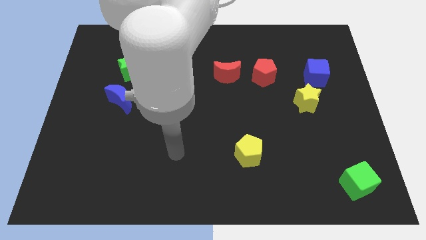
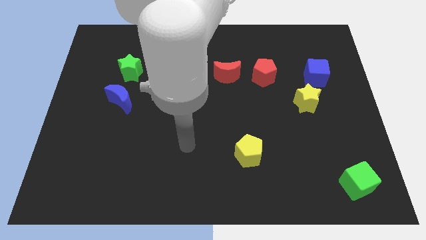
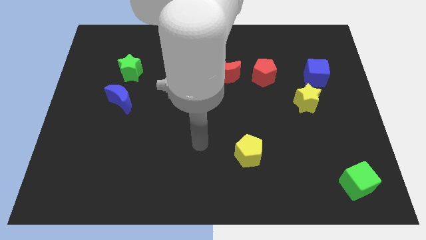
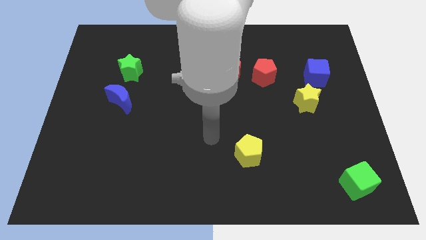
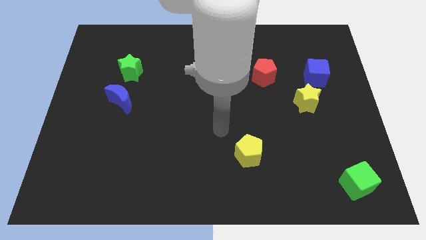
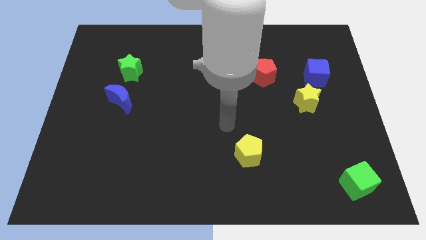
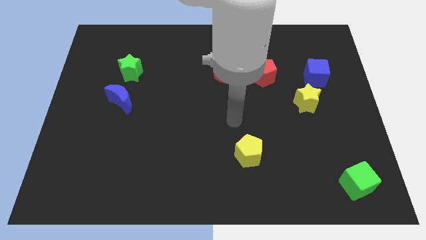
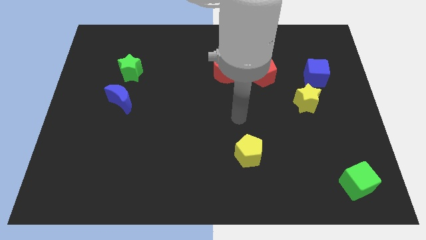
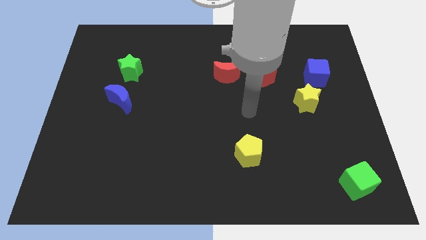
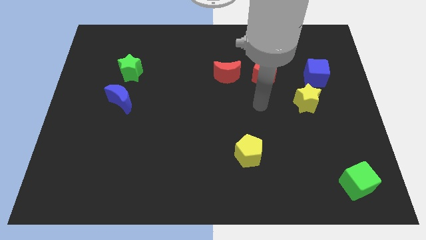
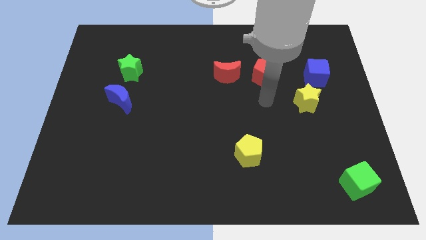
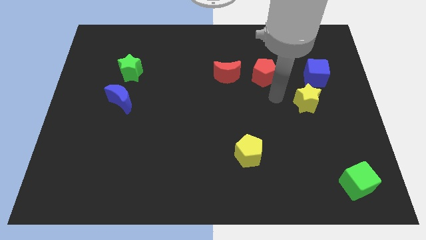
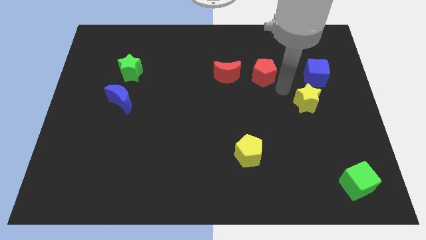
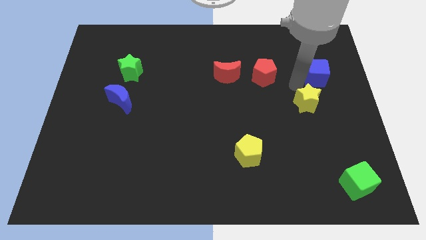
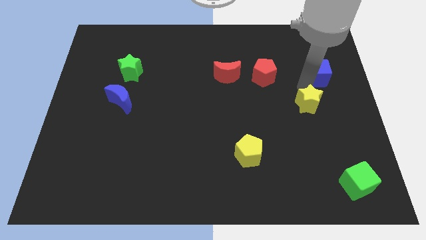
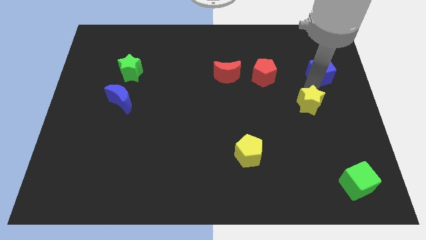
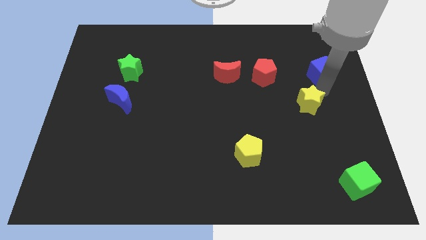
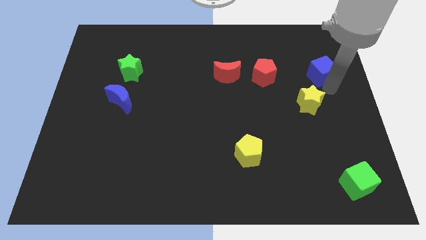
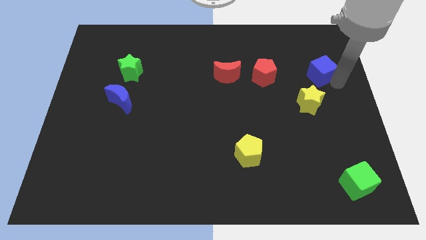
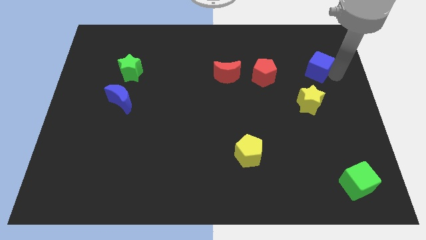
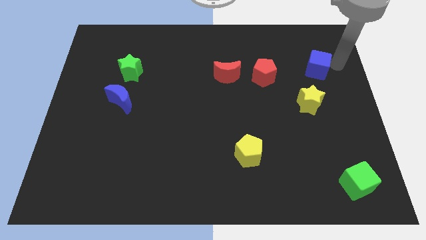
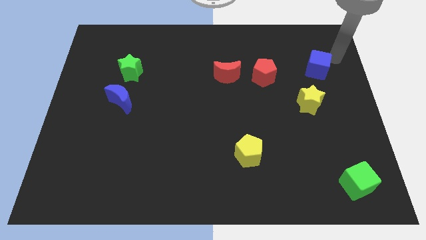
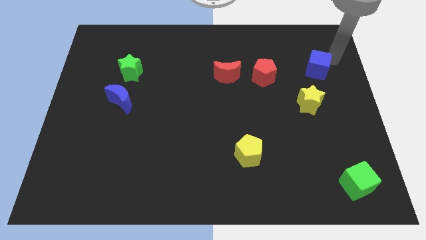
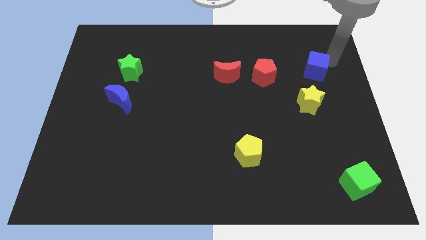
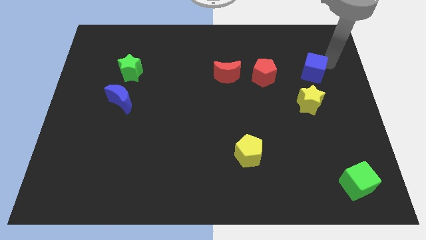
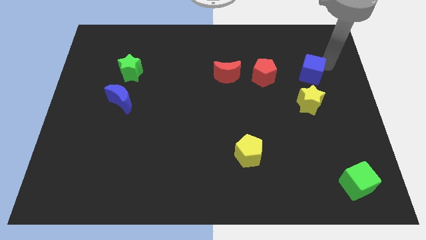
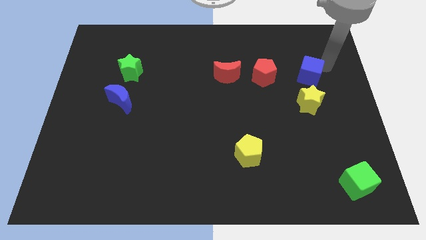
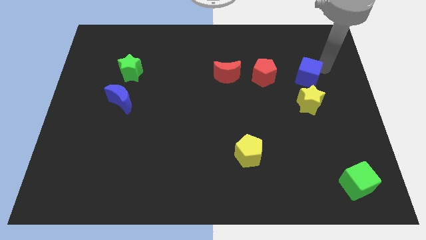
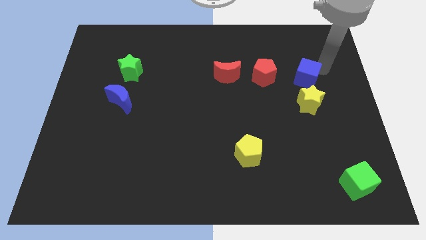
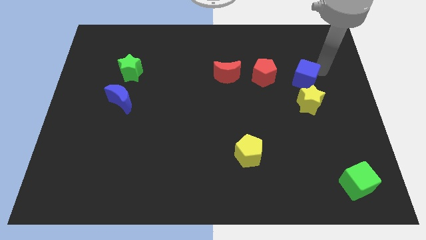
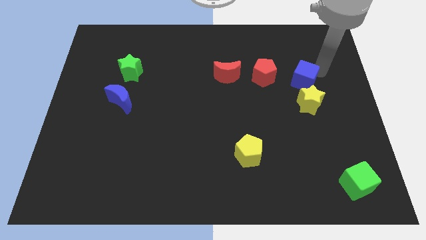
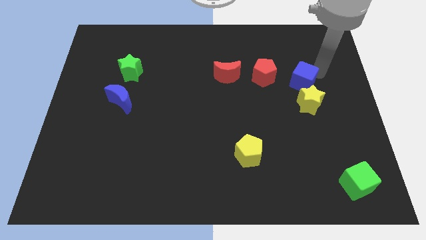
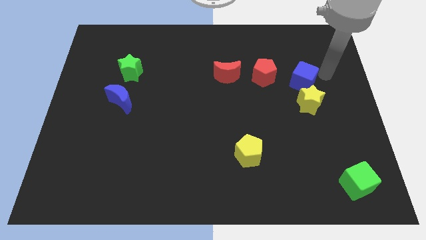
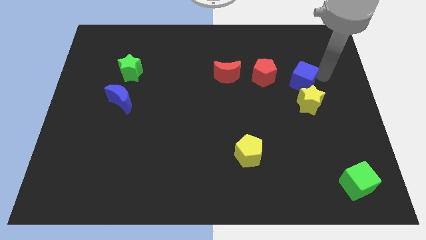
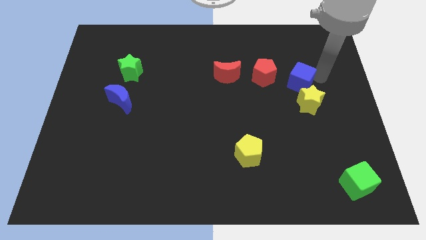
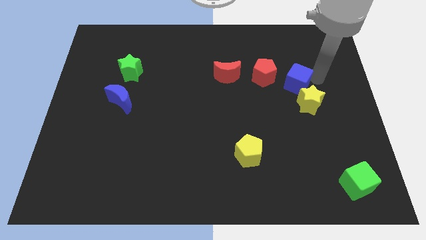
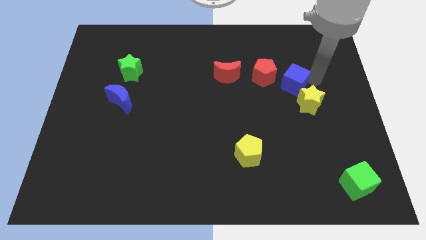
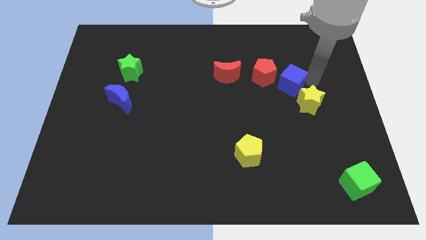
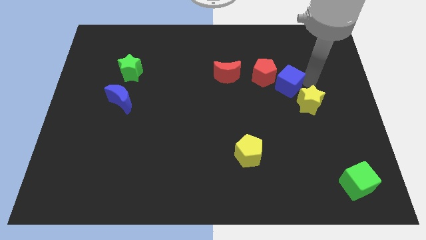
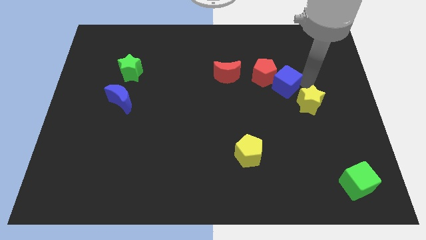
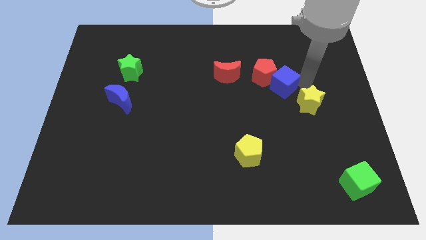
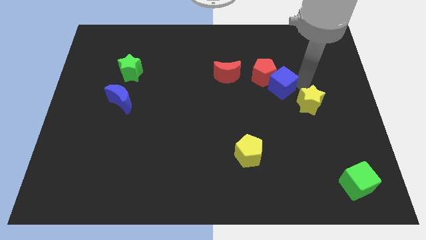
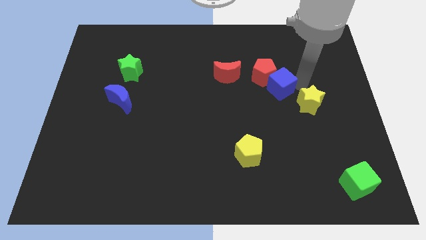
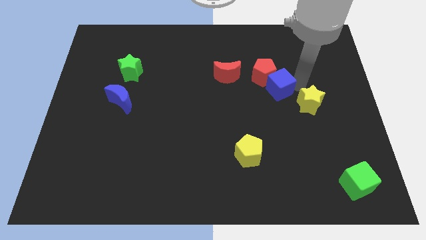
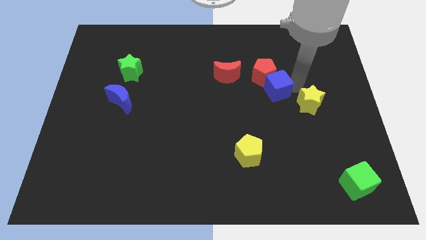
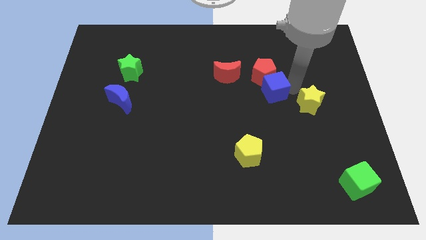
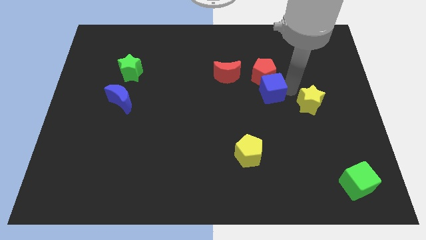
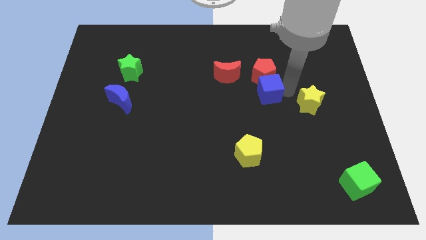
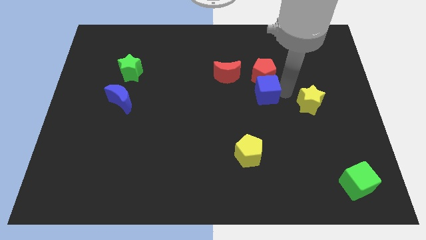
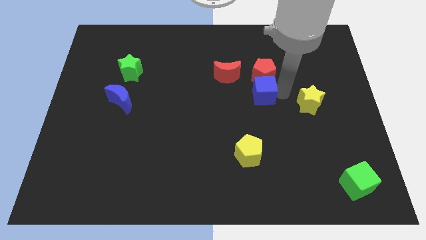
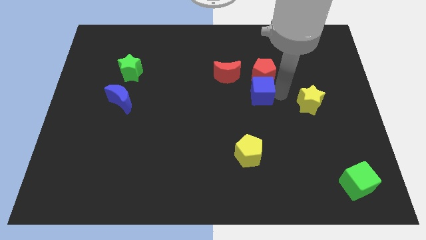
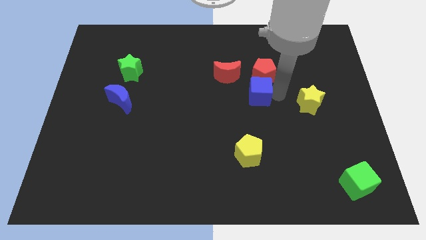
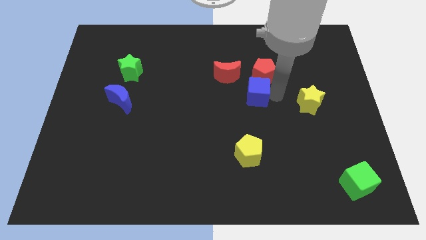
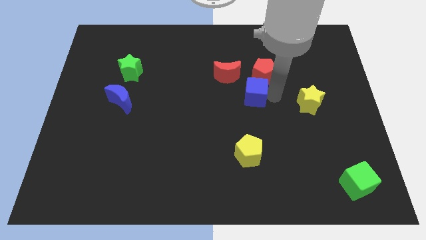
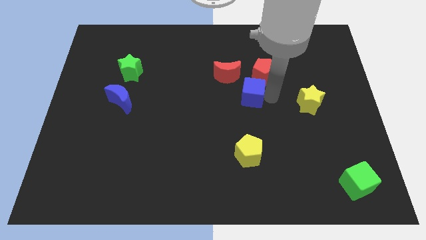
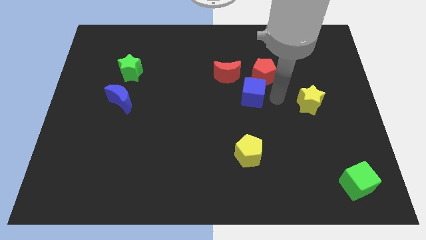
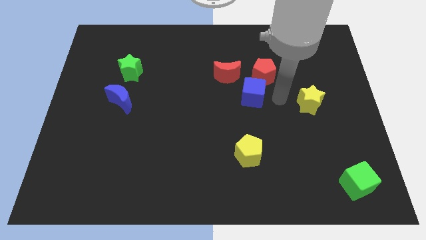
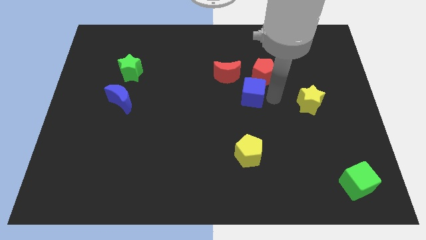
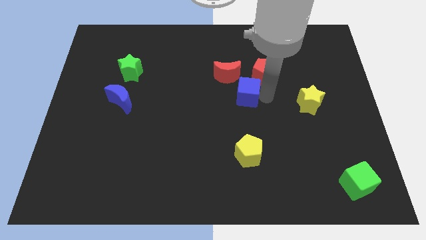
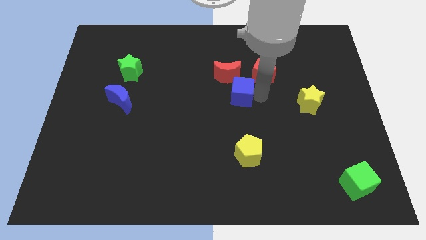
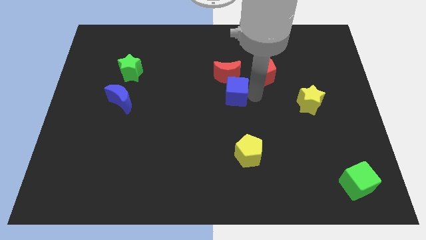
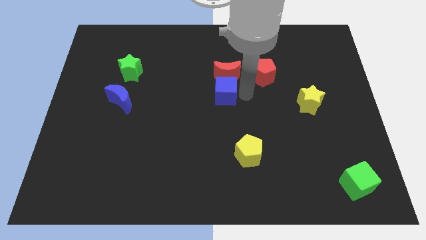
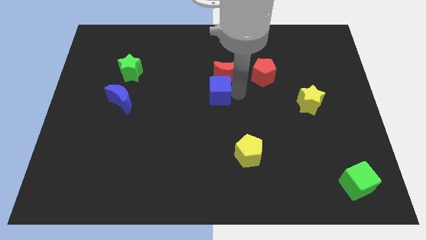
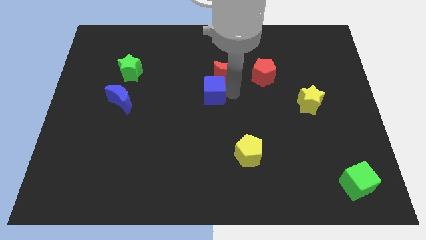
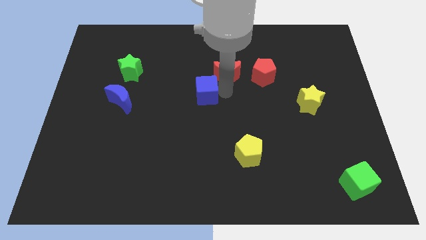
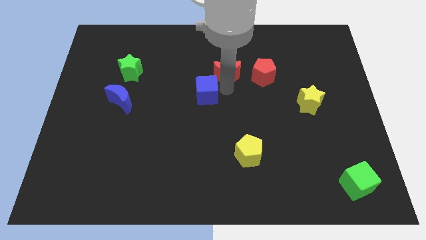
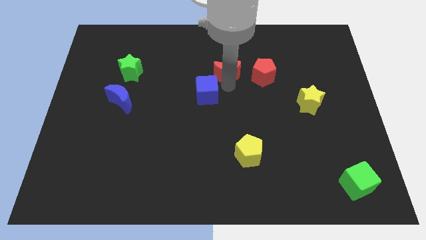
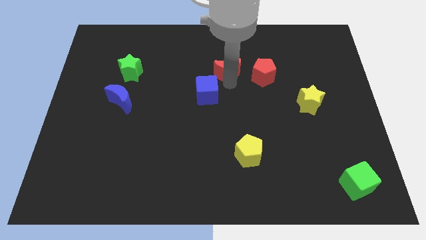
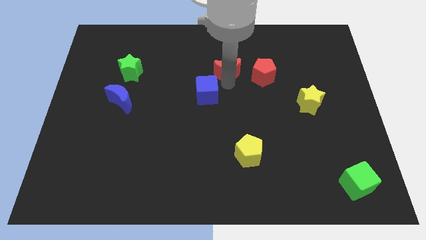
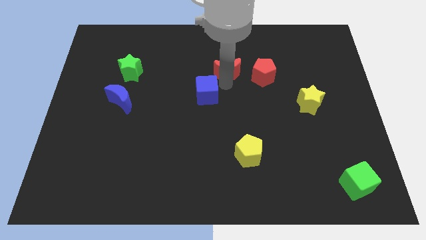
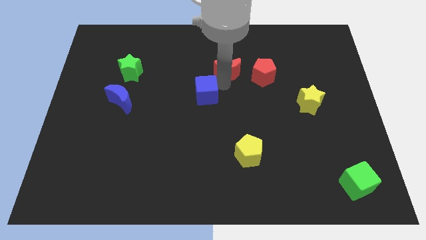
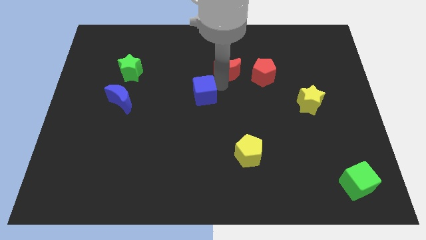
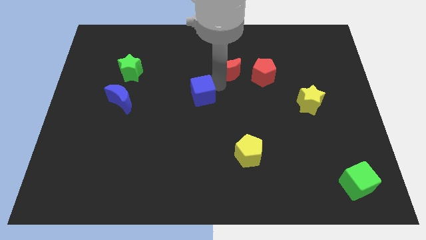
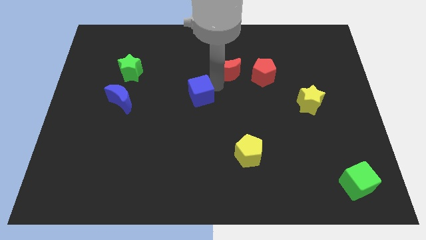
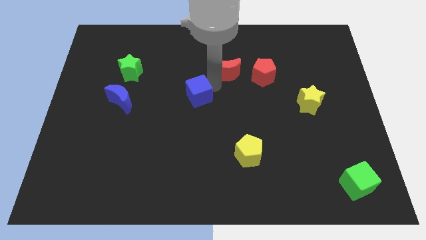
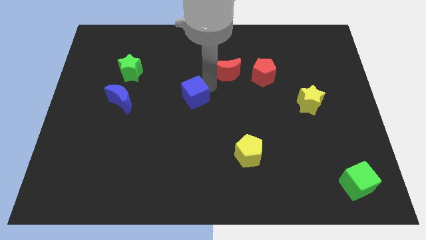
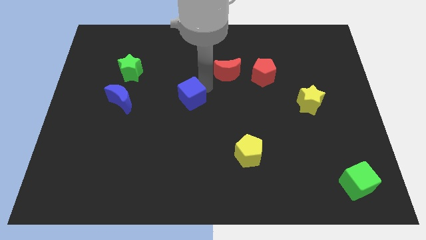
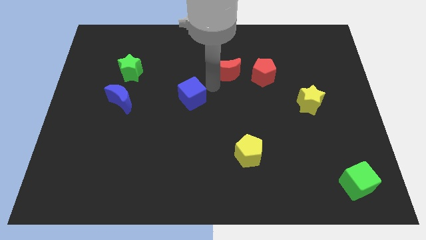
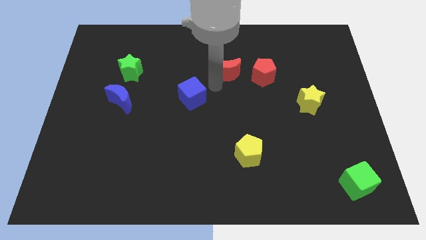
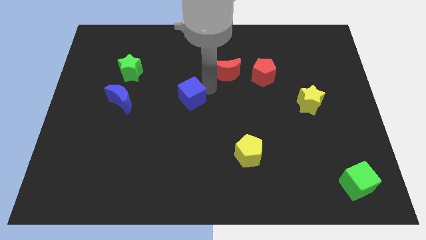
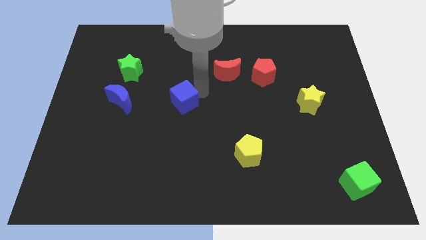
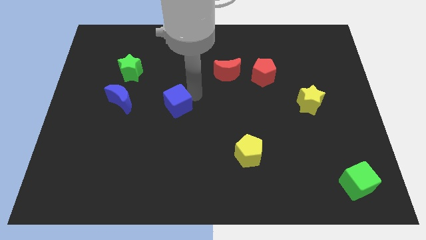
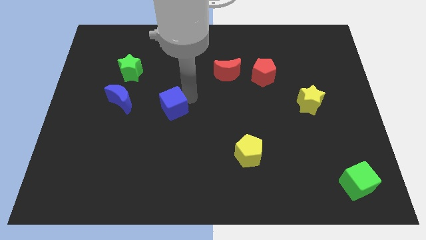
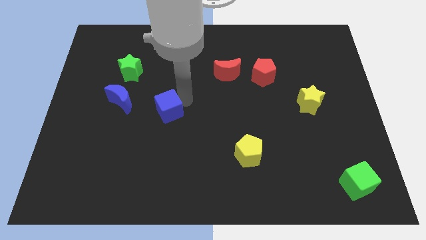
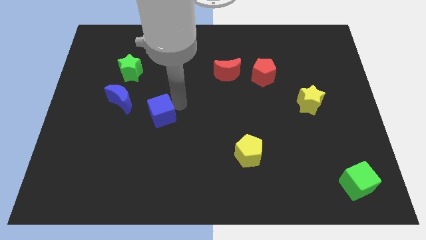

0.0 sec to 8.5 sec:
push the blue cube to the bottom right of the blue moon
